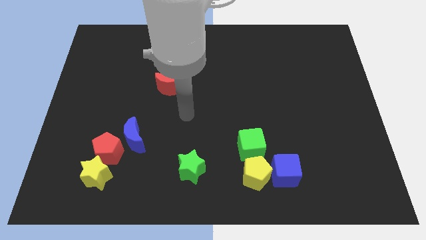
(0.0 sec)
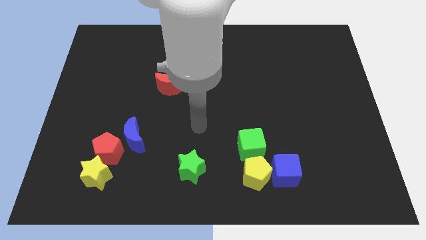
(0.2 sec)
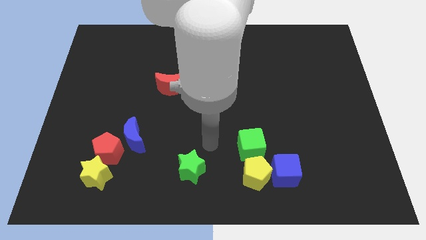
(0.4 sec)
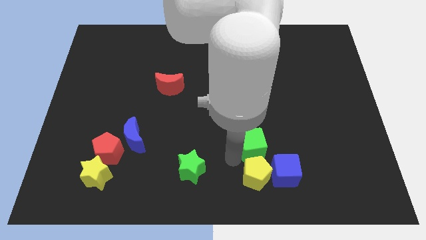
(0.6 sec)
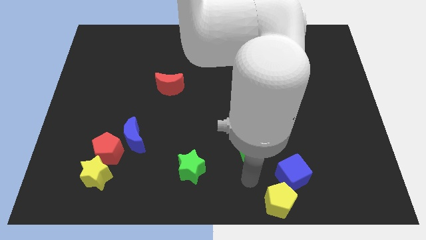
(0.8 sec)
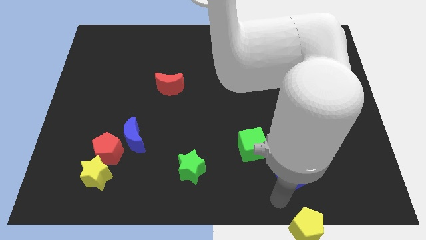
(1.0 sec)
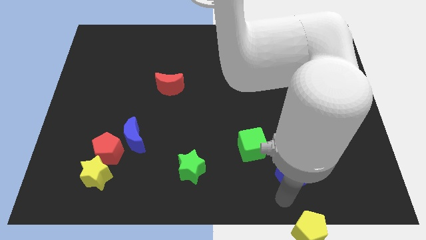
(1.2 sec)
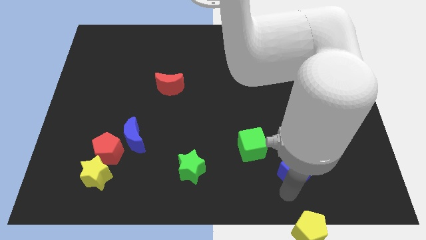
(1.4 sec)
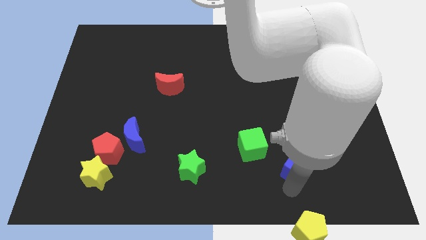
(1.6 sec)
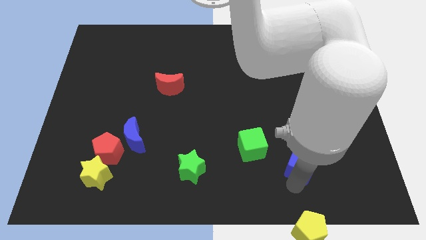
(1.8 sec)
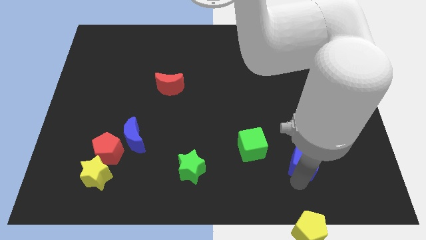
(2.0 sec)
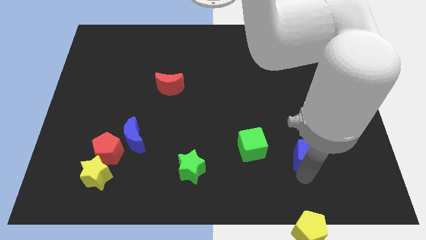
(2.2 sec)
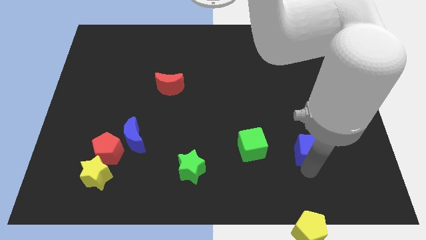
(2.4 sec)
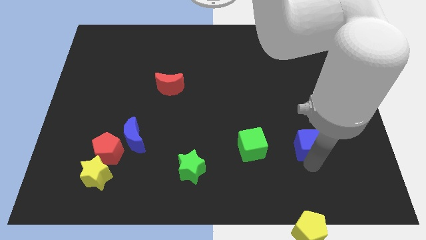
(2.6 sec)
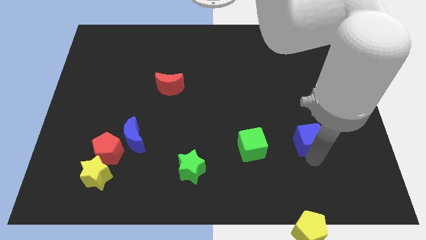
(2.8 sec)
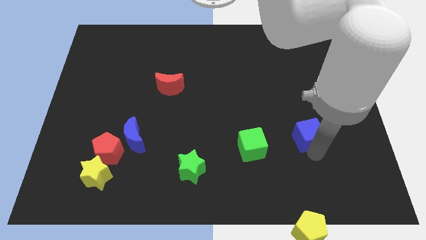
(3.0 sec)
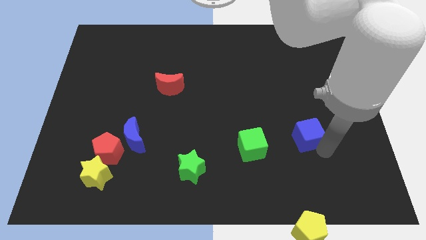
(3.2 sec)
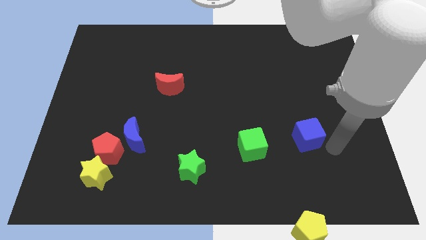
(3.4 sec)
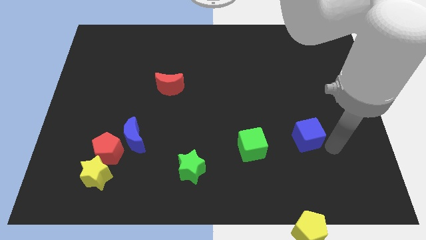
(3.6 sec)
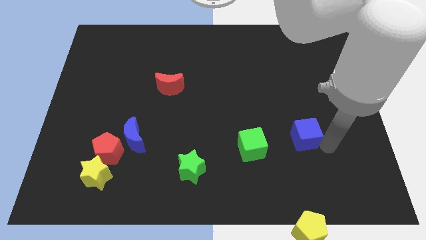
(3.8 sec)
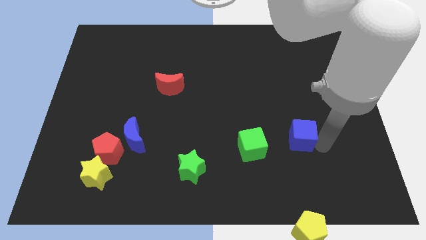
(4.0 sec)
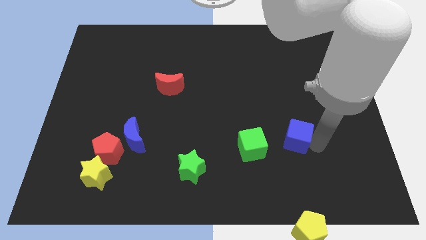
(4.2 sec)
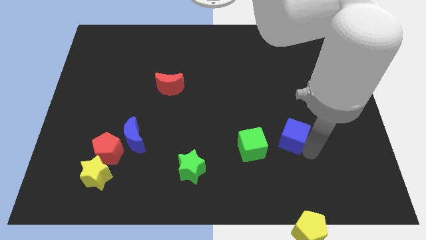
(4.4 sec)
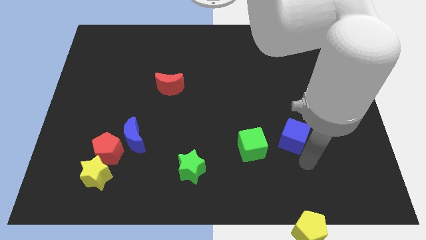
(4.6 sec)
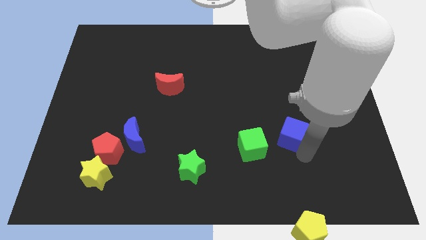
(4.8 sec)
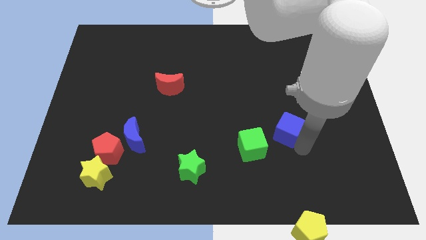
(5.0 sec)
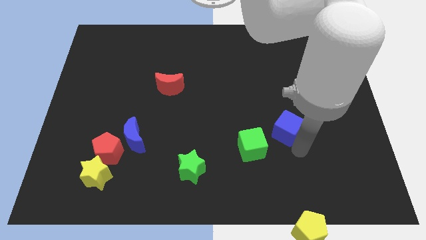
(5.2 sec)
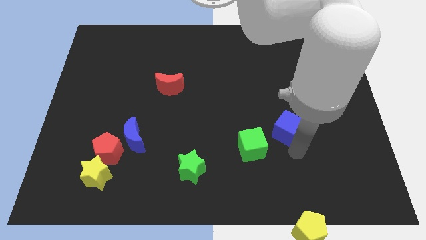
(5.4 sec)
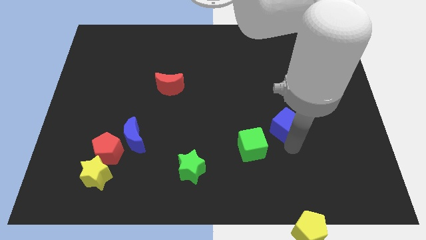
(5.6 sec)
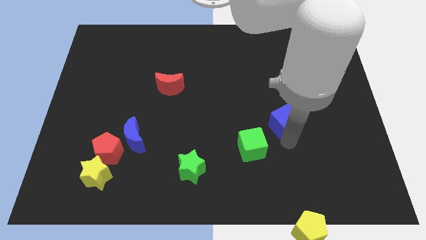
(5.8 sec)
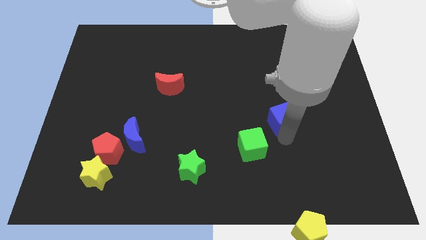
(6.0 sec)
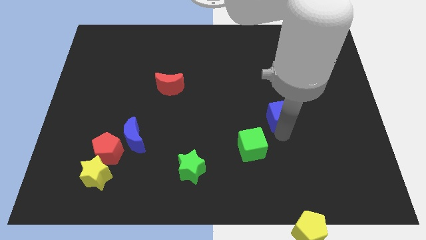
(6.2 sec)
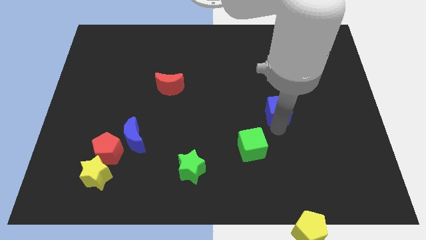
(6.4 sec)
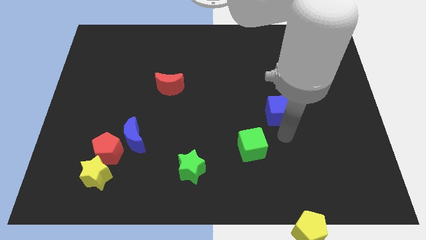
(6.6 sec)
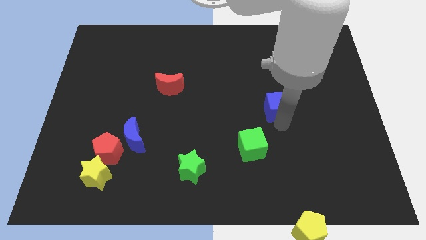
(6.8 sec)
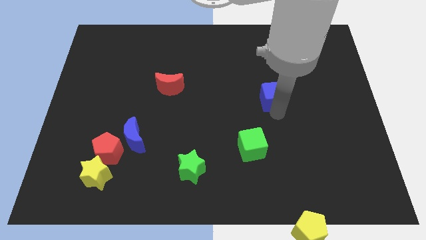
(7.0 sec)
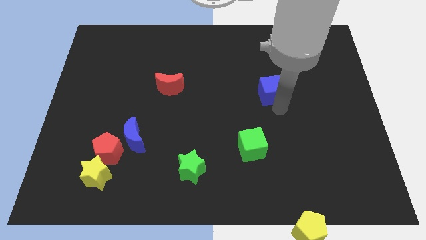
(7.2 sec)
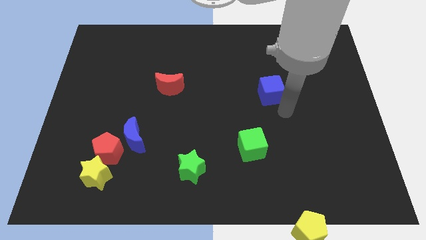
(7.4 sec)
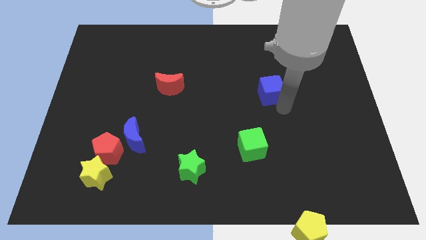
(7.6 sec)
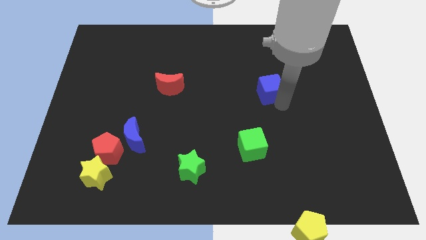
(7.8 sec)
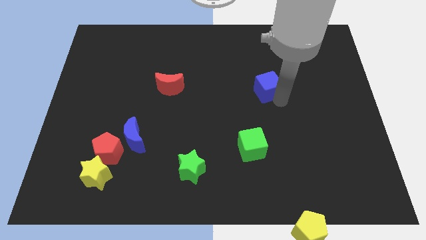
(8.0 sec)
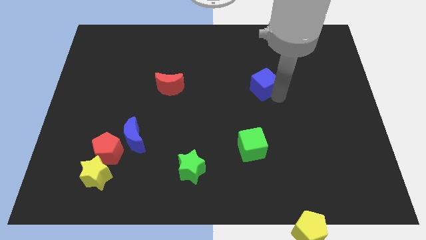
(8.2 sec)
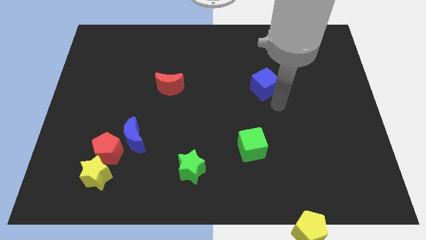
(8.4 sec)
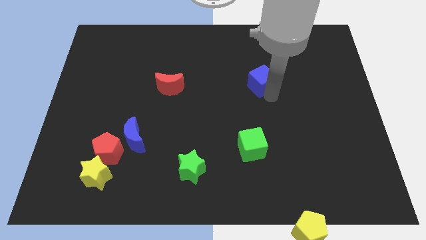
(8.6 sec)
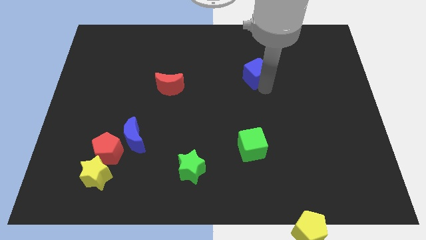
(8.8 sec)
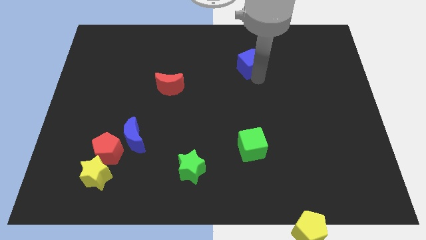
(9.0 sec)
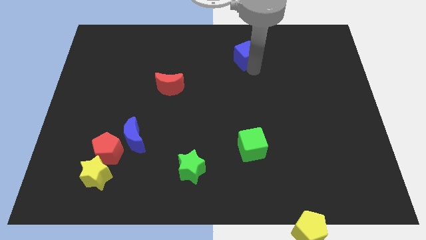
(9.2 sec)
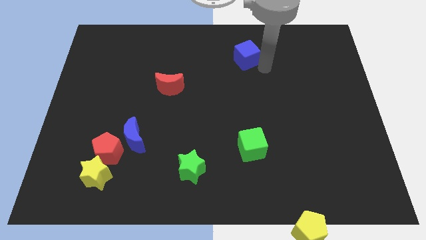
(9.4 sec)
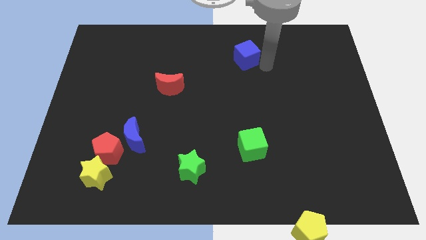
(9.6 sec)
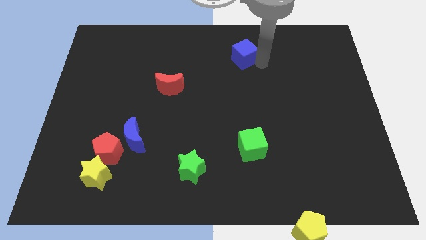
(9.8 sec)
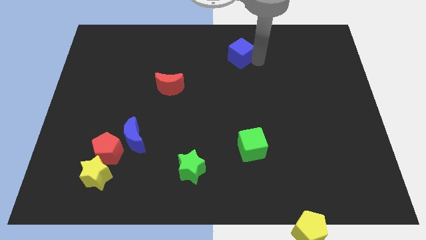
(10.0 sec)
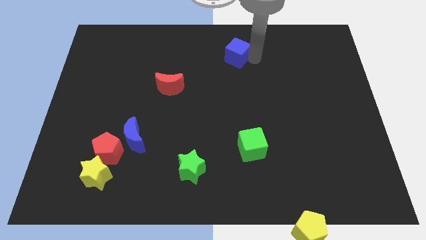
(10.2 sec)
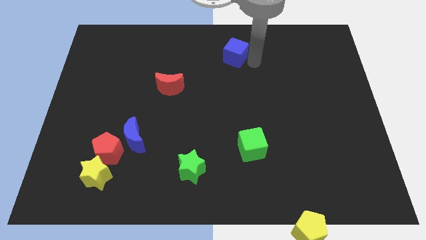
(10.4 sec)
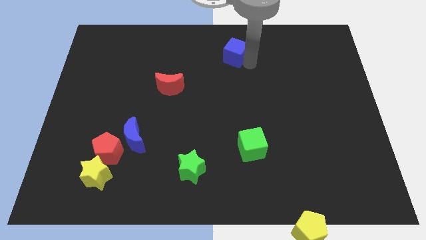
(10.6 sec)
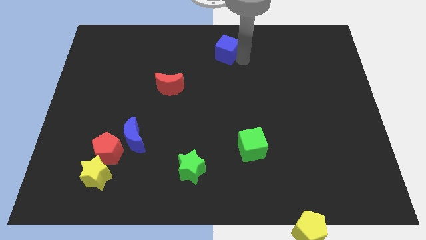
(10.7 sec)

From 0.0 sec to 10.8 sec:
push the blue cube to the top side

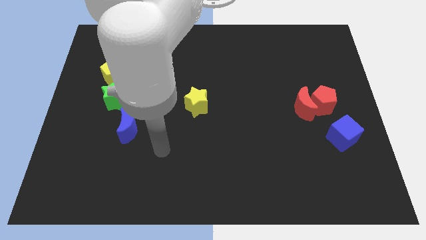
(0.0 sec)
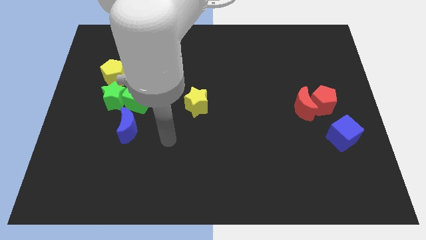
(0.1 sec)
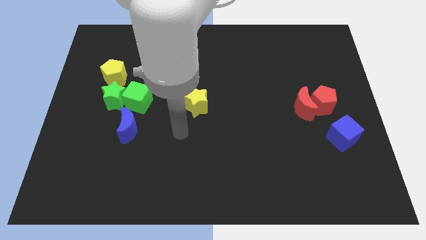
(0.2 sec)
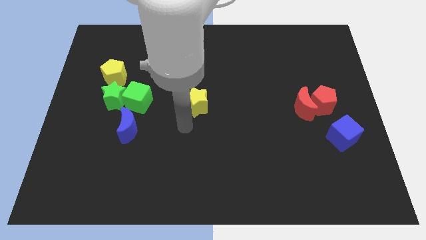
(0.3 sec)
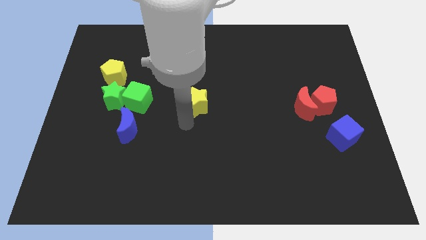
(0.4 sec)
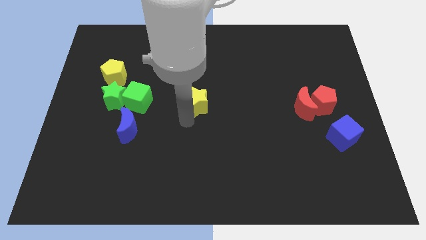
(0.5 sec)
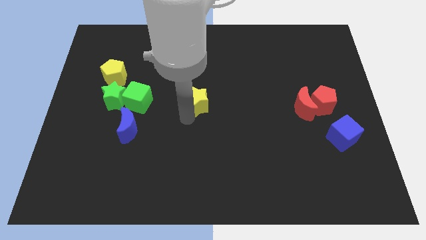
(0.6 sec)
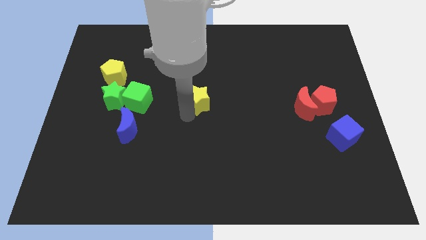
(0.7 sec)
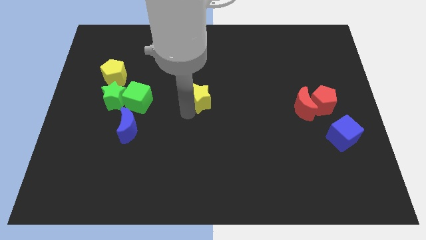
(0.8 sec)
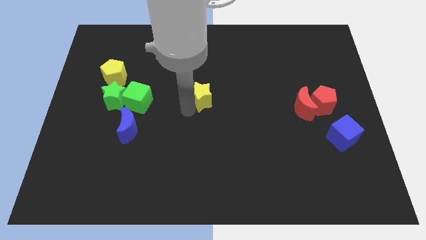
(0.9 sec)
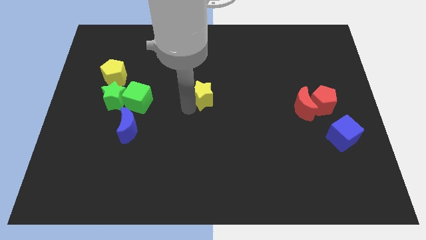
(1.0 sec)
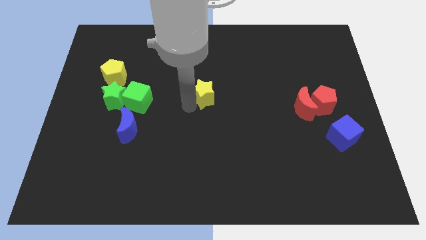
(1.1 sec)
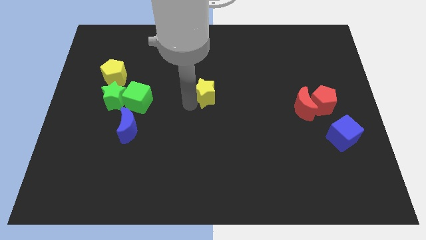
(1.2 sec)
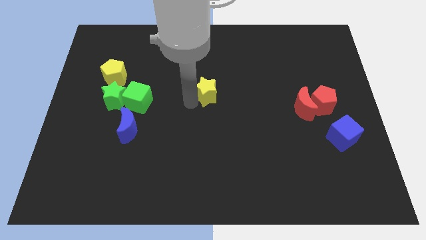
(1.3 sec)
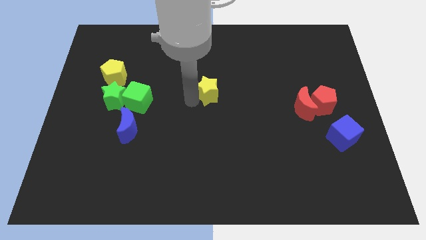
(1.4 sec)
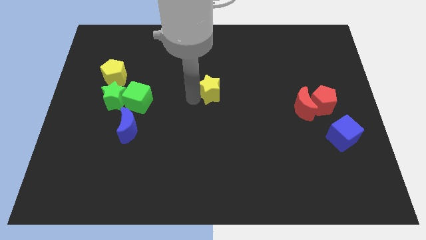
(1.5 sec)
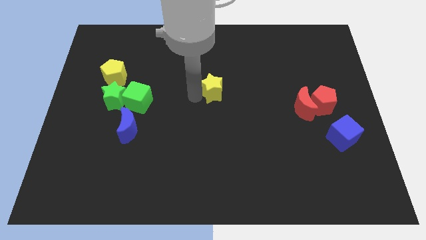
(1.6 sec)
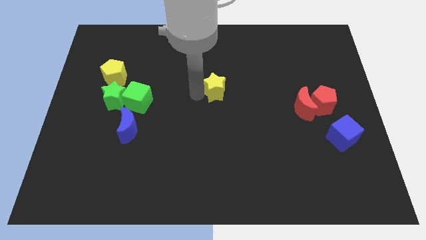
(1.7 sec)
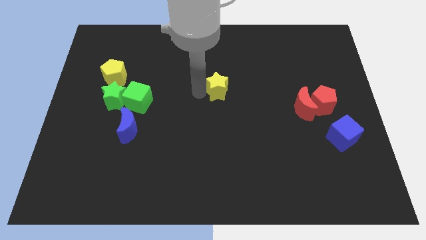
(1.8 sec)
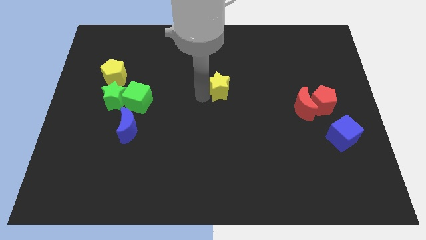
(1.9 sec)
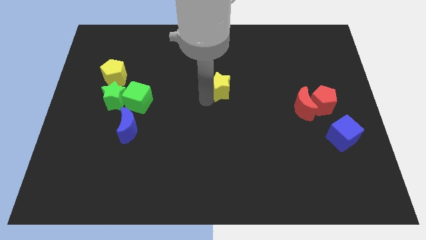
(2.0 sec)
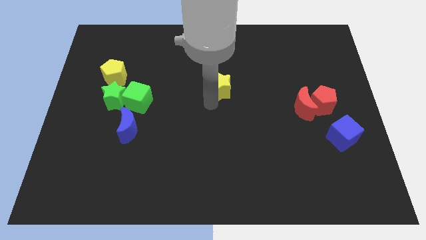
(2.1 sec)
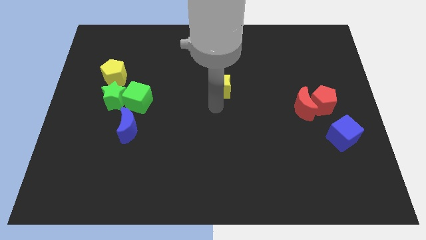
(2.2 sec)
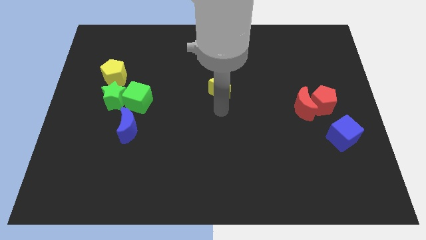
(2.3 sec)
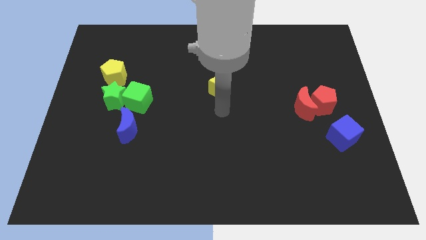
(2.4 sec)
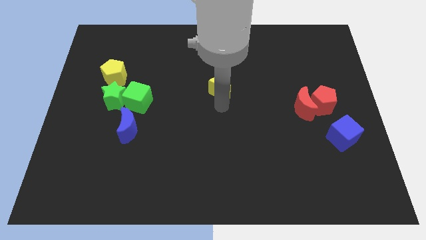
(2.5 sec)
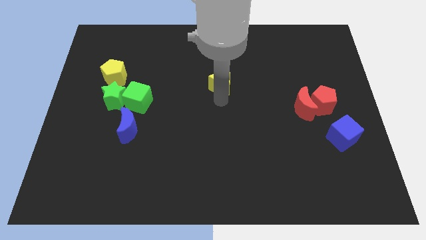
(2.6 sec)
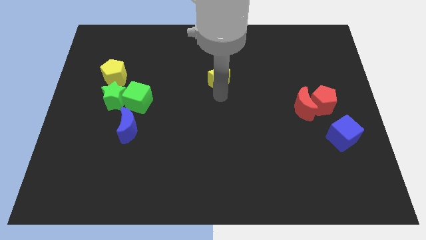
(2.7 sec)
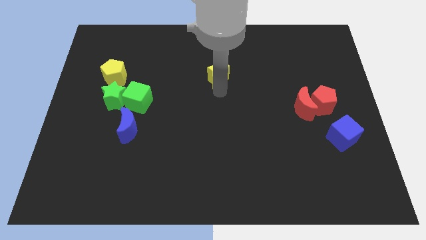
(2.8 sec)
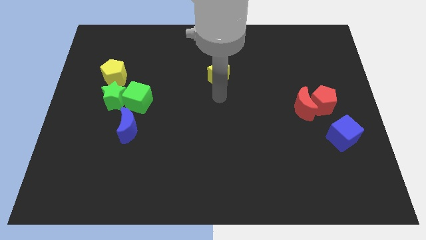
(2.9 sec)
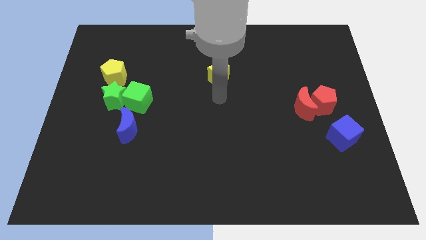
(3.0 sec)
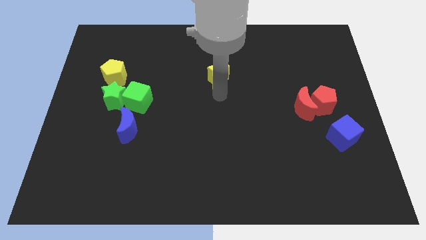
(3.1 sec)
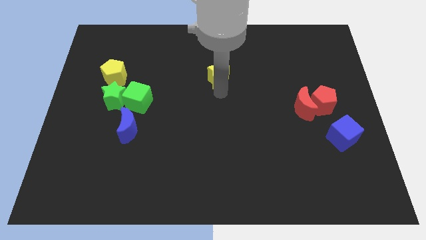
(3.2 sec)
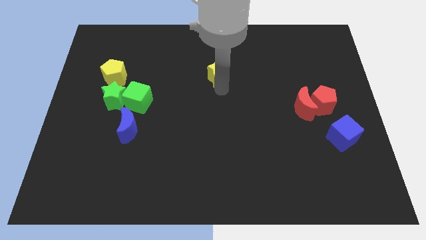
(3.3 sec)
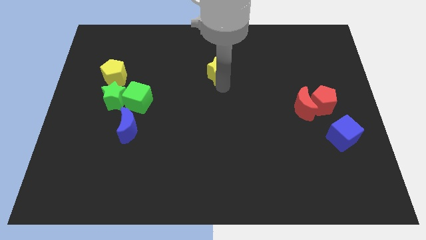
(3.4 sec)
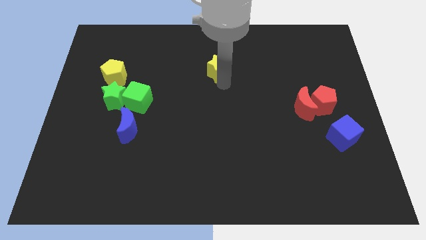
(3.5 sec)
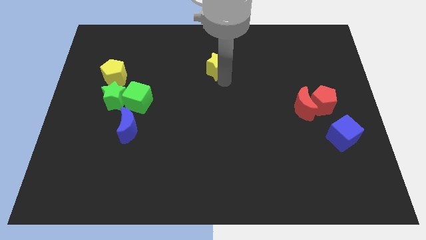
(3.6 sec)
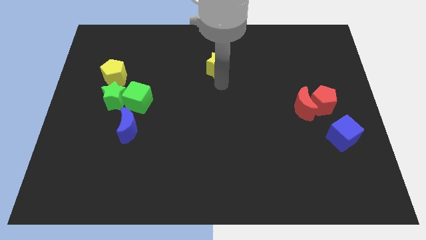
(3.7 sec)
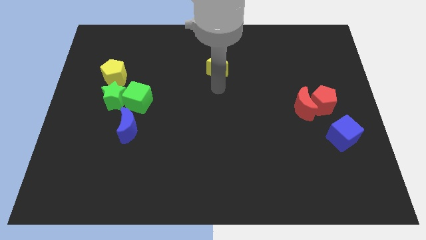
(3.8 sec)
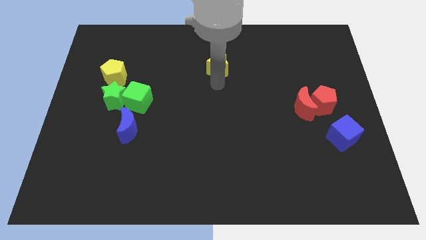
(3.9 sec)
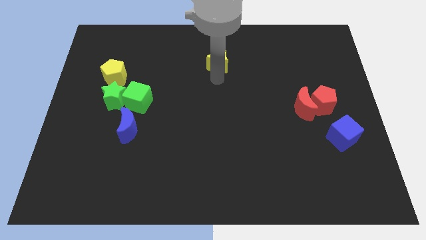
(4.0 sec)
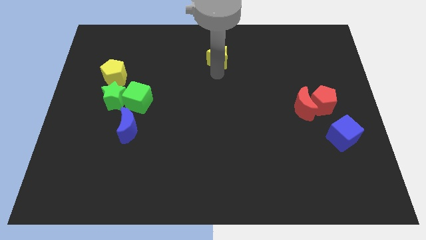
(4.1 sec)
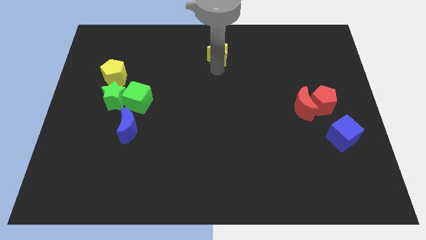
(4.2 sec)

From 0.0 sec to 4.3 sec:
slide the yellow star to the towards your base
